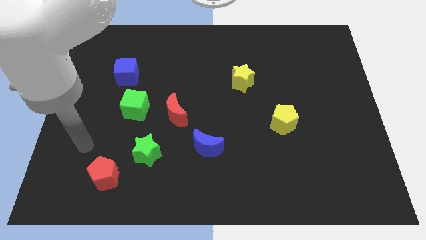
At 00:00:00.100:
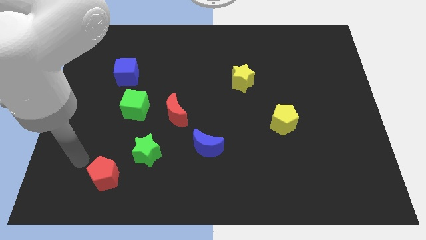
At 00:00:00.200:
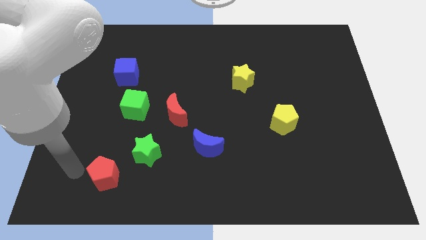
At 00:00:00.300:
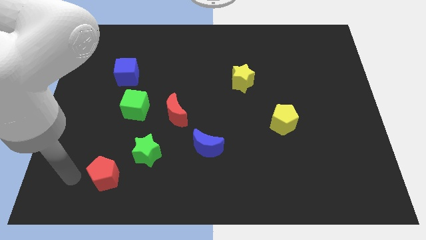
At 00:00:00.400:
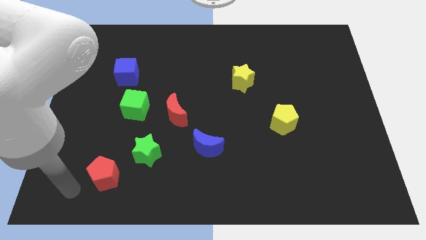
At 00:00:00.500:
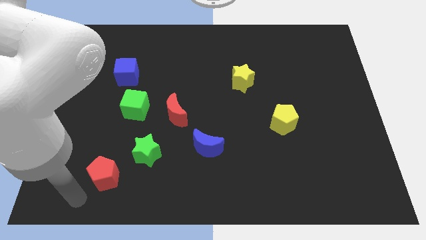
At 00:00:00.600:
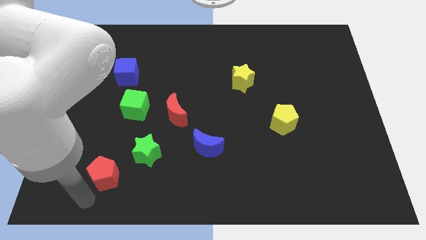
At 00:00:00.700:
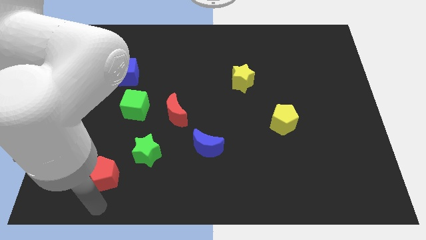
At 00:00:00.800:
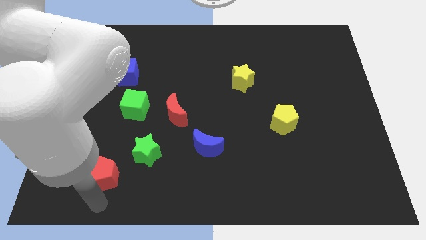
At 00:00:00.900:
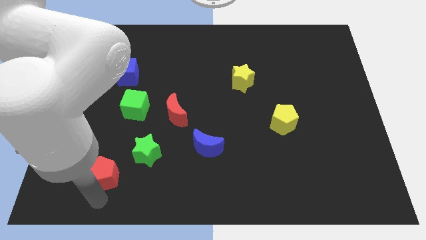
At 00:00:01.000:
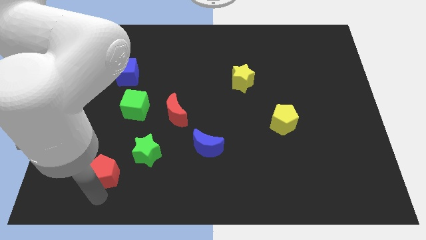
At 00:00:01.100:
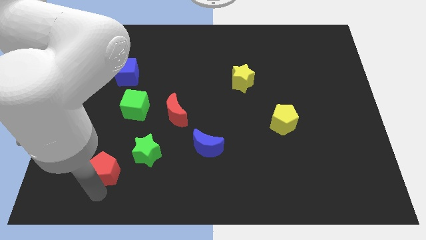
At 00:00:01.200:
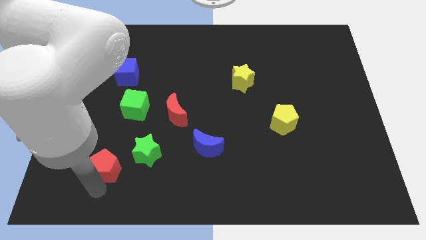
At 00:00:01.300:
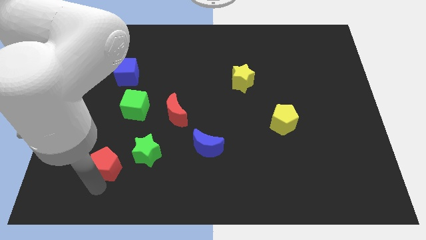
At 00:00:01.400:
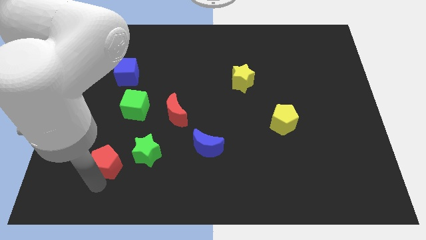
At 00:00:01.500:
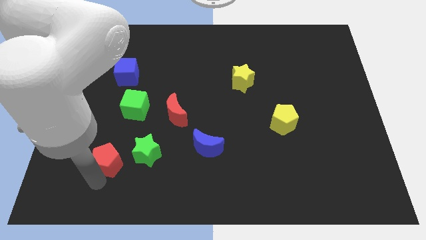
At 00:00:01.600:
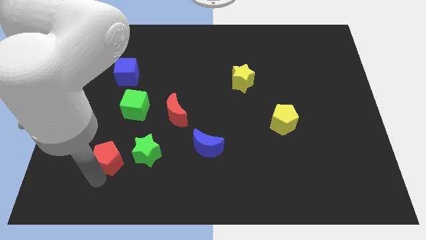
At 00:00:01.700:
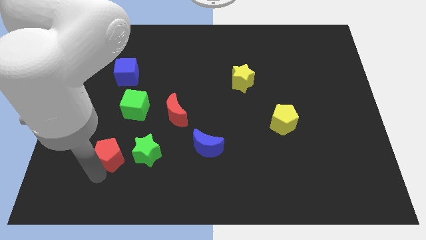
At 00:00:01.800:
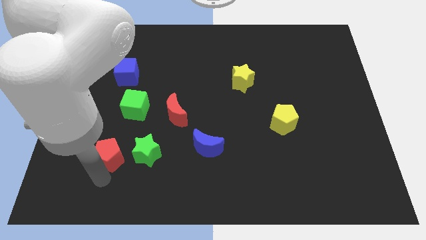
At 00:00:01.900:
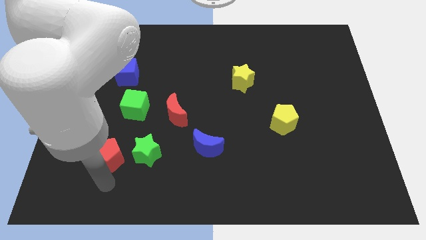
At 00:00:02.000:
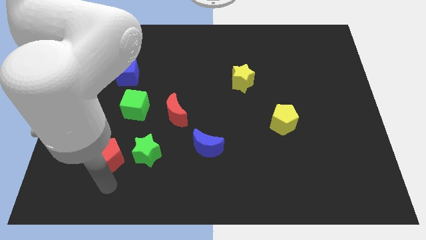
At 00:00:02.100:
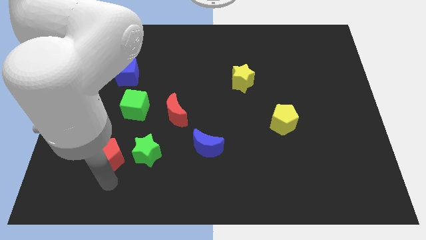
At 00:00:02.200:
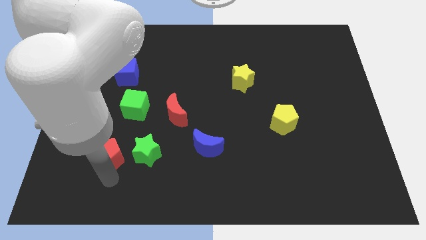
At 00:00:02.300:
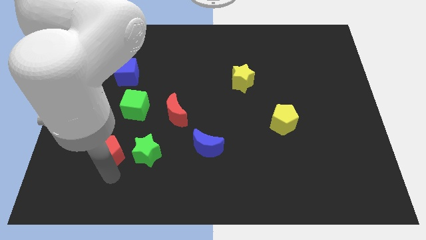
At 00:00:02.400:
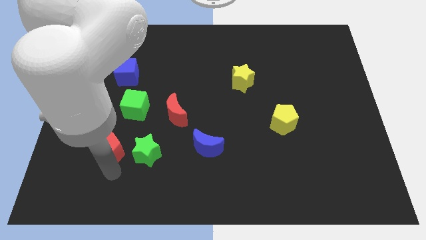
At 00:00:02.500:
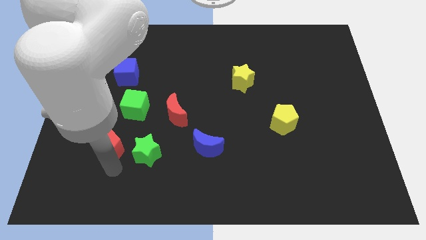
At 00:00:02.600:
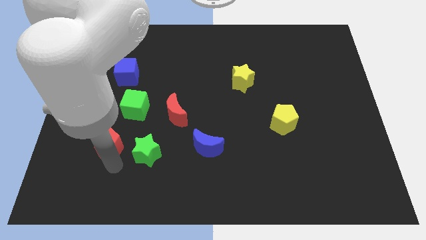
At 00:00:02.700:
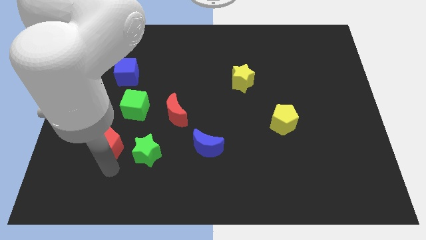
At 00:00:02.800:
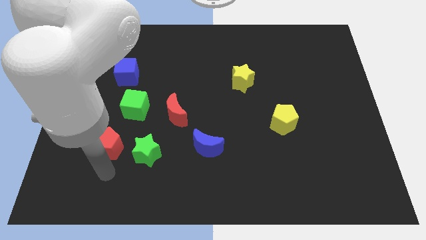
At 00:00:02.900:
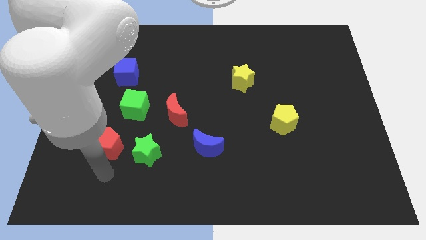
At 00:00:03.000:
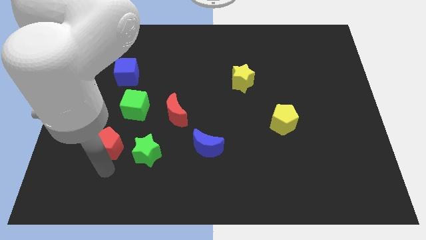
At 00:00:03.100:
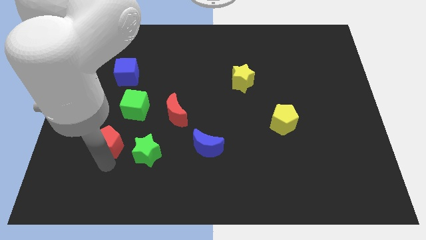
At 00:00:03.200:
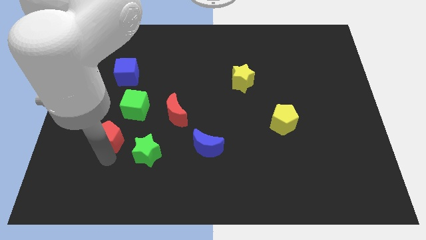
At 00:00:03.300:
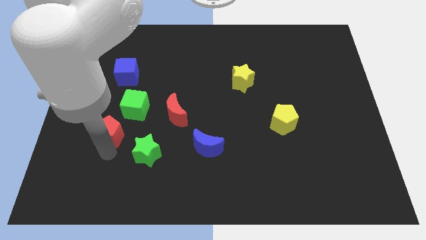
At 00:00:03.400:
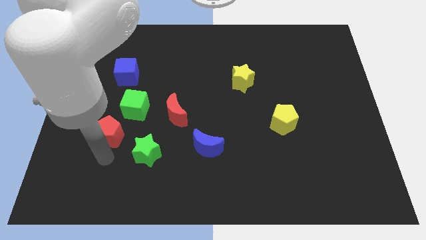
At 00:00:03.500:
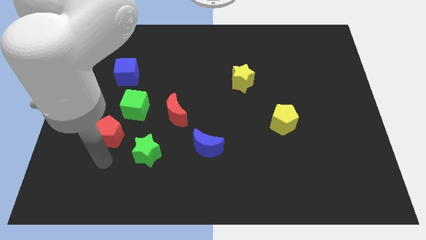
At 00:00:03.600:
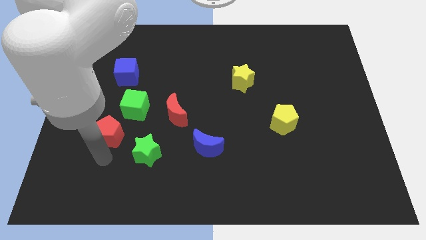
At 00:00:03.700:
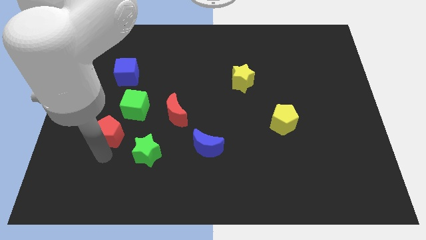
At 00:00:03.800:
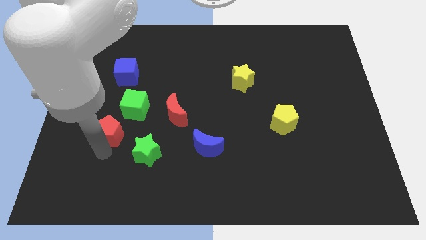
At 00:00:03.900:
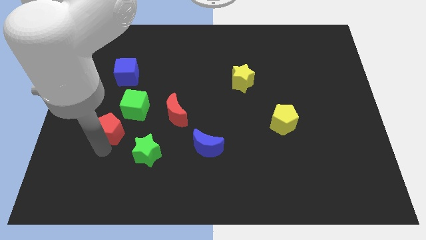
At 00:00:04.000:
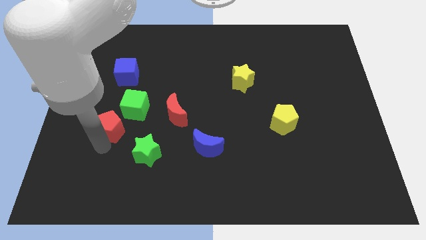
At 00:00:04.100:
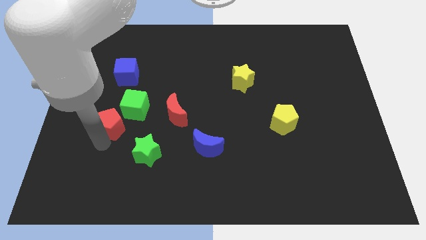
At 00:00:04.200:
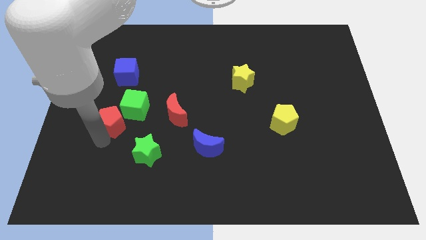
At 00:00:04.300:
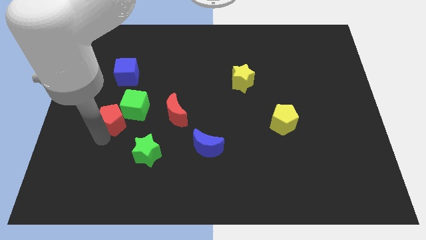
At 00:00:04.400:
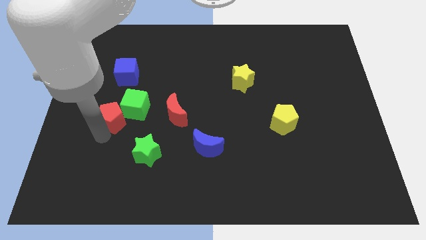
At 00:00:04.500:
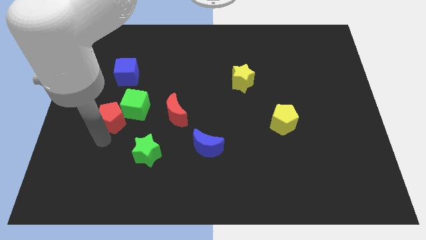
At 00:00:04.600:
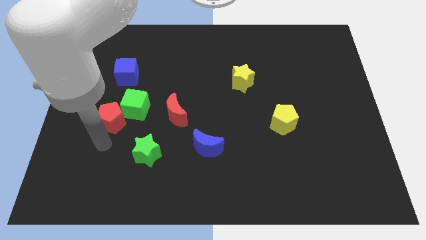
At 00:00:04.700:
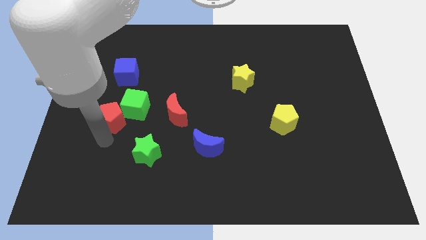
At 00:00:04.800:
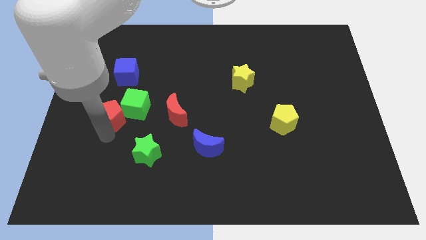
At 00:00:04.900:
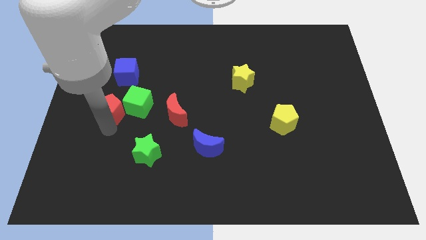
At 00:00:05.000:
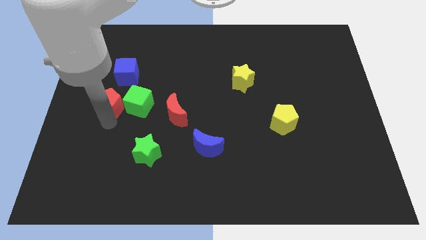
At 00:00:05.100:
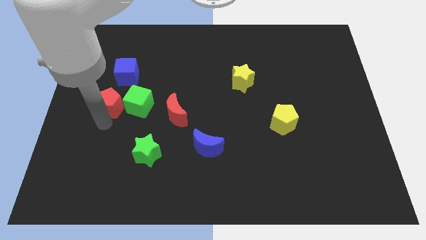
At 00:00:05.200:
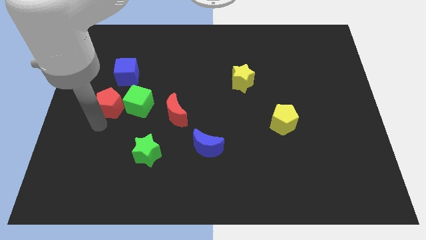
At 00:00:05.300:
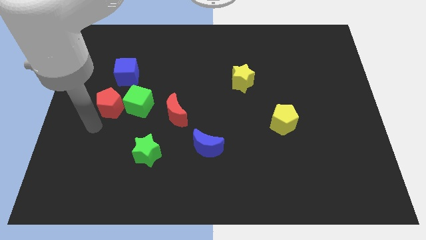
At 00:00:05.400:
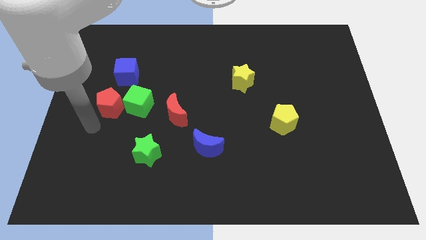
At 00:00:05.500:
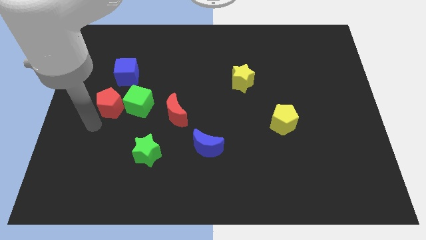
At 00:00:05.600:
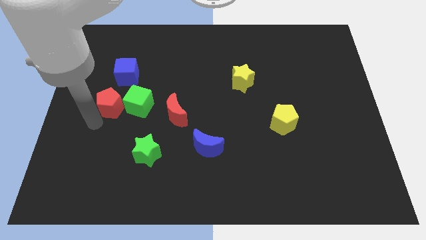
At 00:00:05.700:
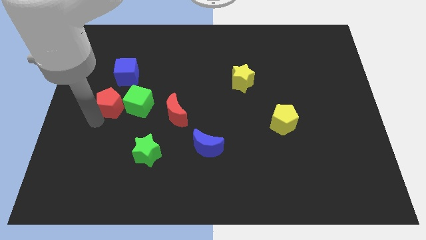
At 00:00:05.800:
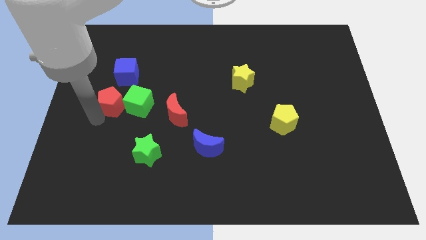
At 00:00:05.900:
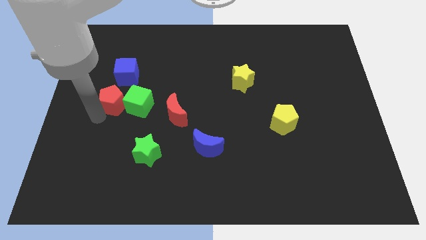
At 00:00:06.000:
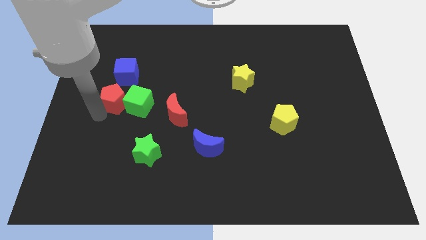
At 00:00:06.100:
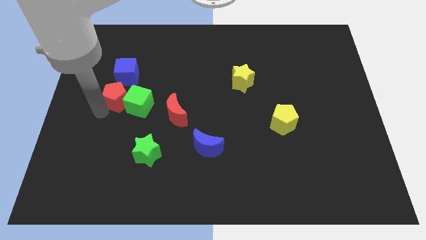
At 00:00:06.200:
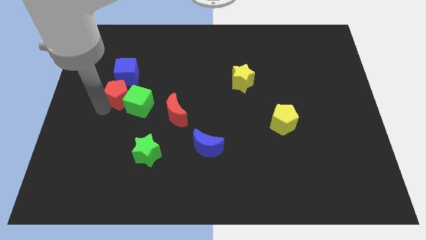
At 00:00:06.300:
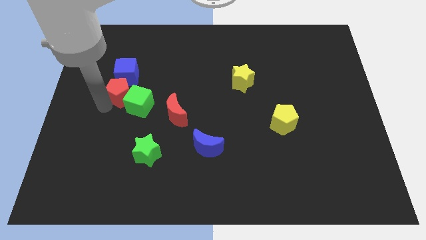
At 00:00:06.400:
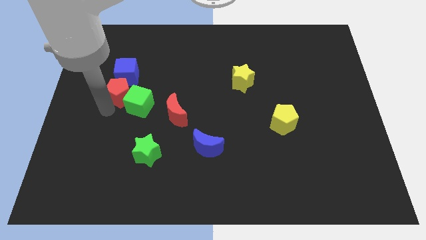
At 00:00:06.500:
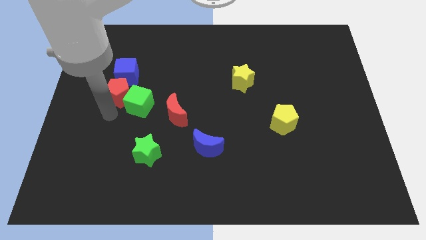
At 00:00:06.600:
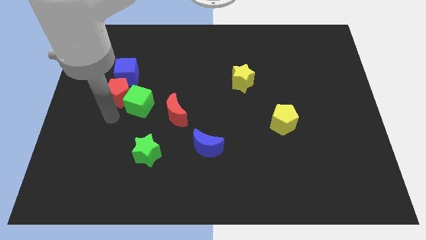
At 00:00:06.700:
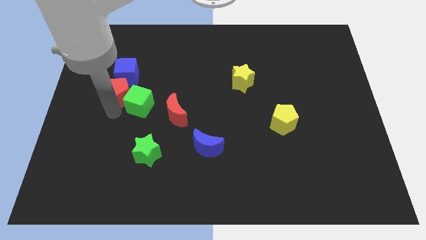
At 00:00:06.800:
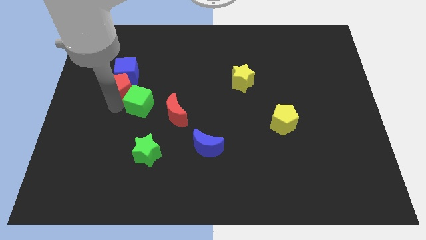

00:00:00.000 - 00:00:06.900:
move the red pentagon to the blue cube
